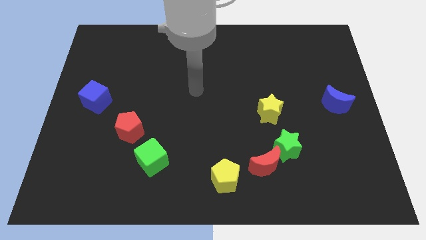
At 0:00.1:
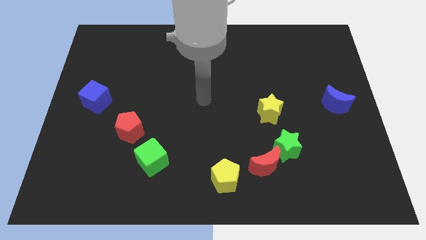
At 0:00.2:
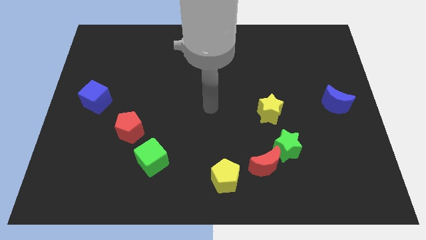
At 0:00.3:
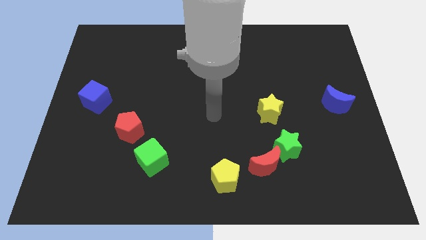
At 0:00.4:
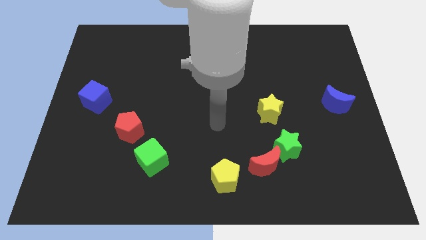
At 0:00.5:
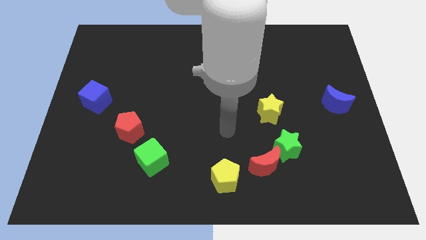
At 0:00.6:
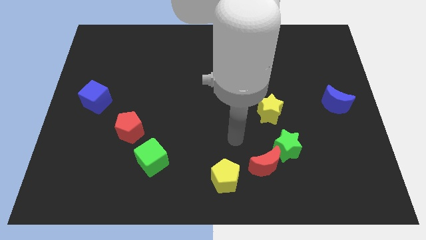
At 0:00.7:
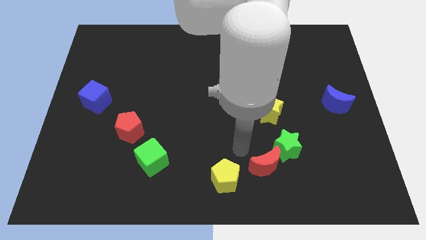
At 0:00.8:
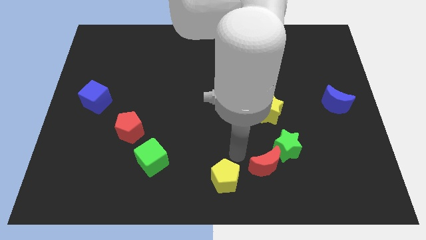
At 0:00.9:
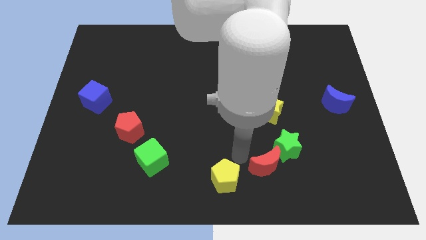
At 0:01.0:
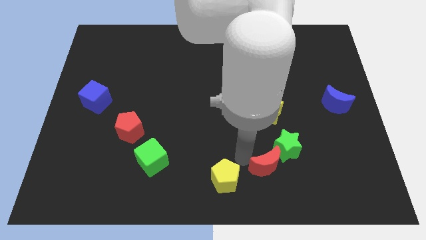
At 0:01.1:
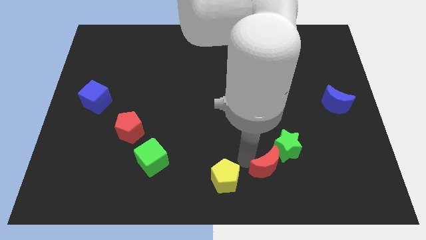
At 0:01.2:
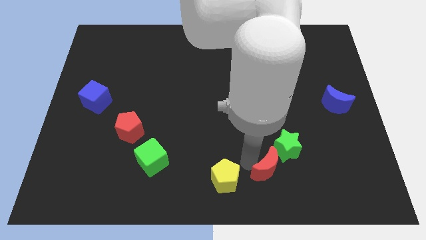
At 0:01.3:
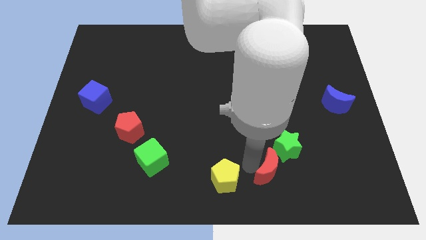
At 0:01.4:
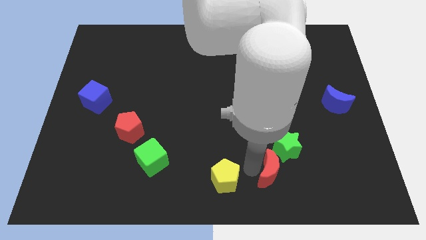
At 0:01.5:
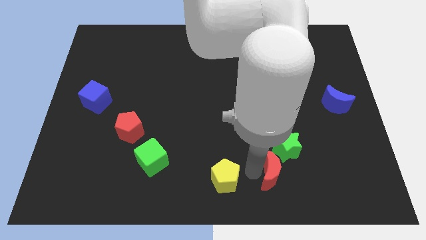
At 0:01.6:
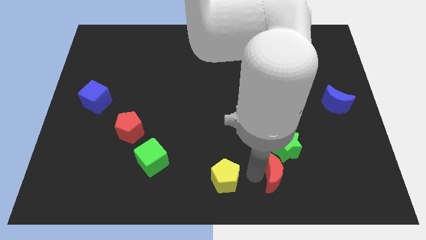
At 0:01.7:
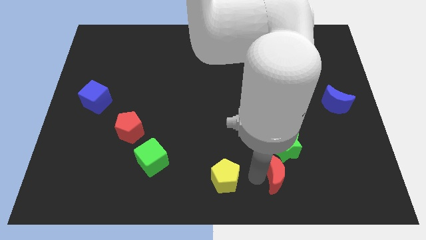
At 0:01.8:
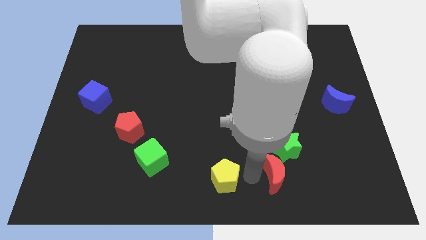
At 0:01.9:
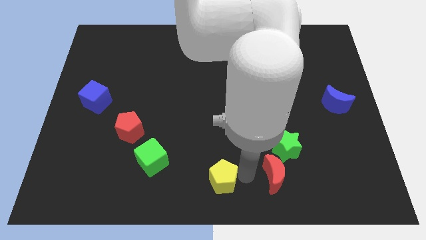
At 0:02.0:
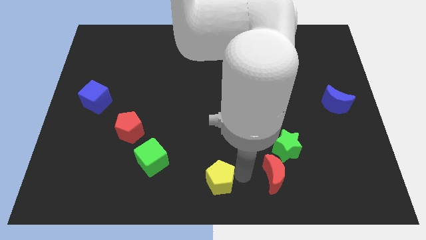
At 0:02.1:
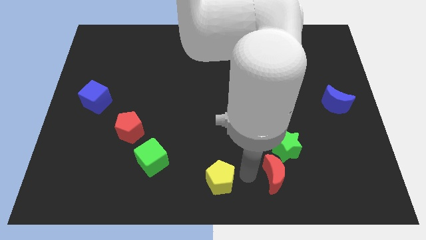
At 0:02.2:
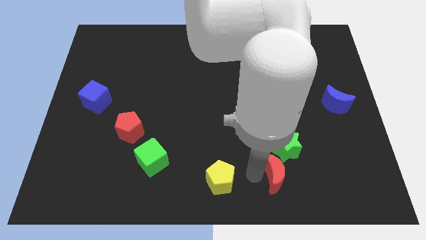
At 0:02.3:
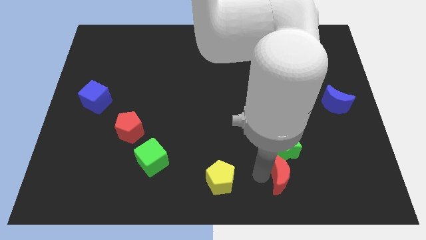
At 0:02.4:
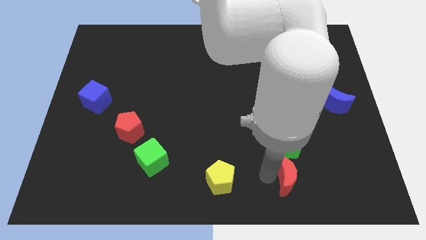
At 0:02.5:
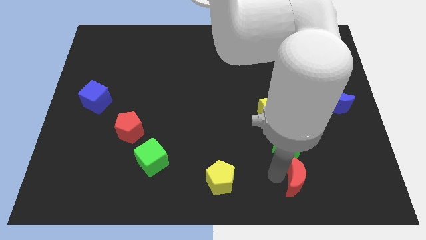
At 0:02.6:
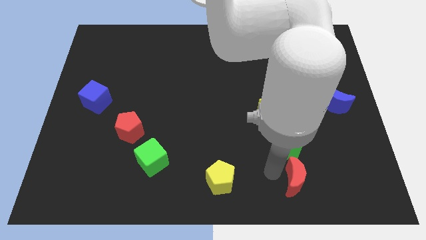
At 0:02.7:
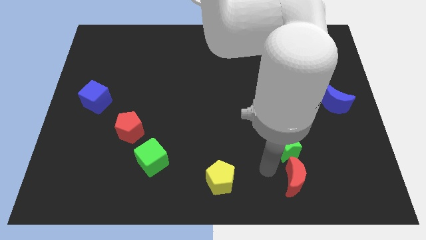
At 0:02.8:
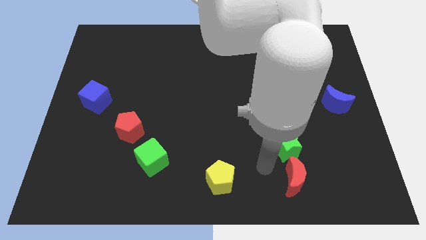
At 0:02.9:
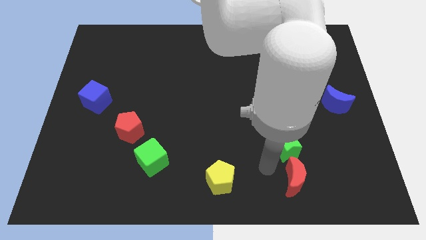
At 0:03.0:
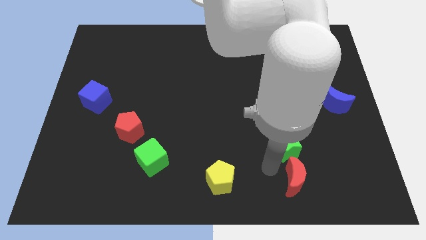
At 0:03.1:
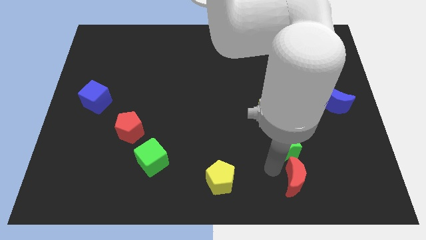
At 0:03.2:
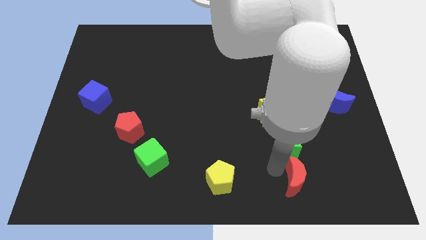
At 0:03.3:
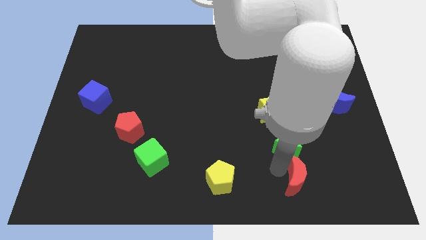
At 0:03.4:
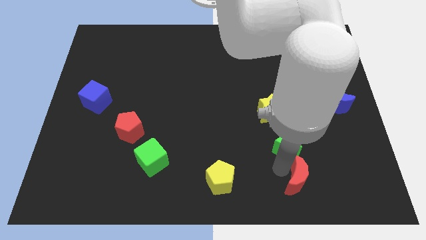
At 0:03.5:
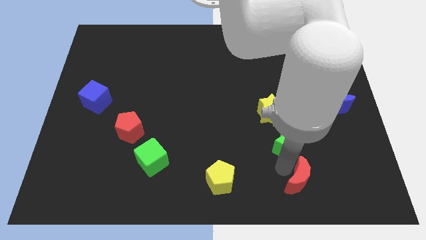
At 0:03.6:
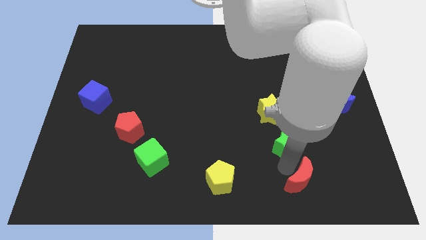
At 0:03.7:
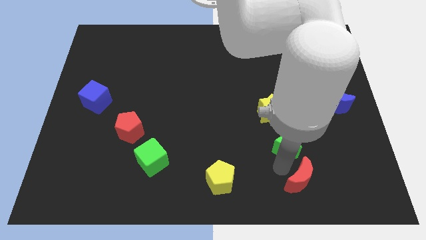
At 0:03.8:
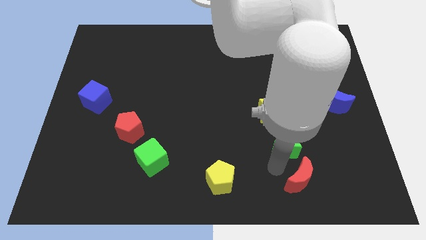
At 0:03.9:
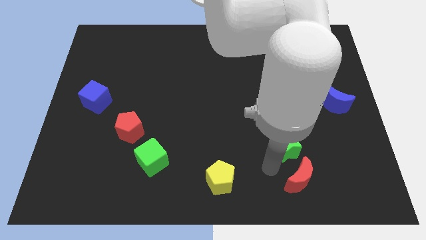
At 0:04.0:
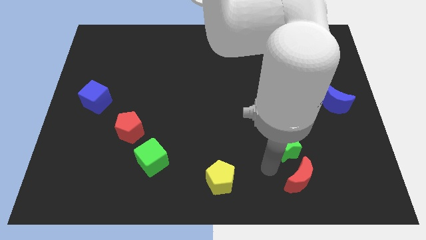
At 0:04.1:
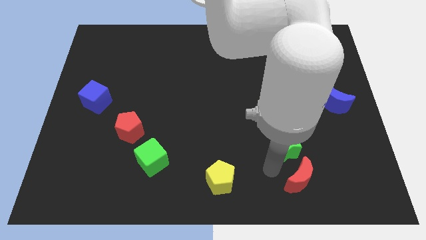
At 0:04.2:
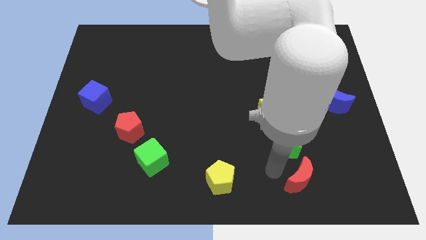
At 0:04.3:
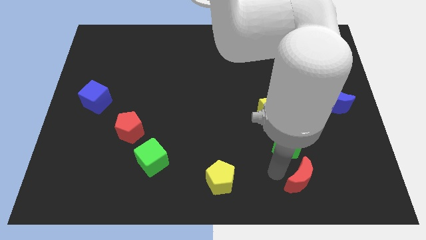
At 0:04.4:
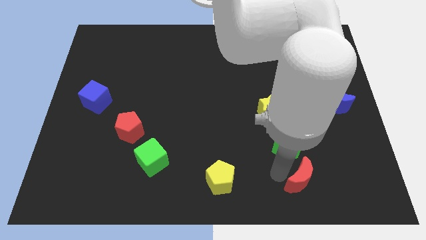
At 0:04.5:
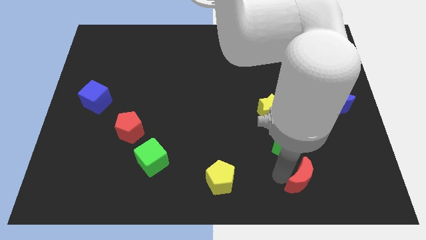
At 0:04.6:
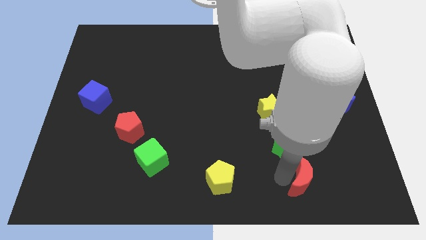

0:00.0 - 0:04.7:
separate the red moon from the green star and yellow pentagon

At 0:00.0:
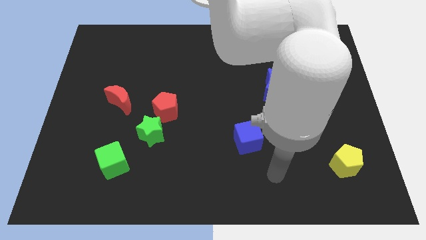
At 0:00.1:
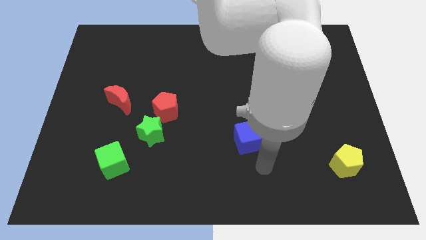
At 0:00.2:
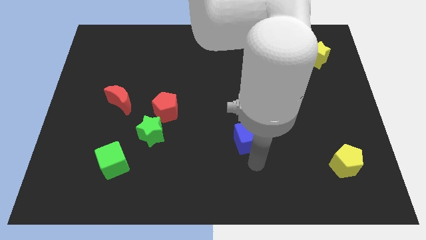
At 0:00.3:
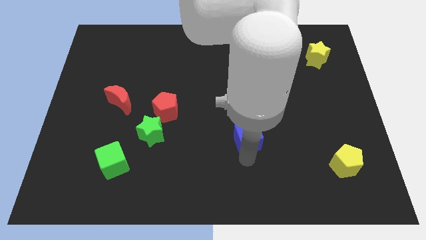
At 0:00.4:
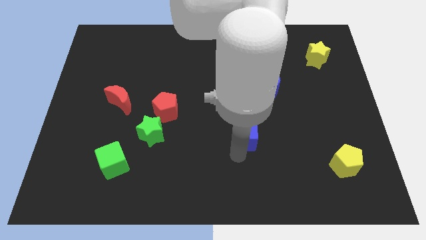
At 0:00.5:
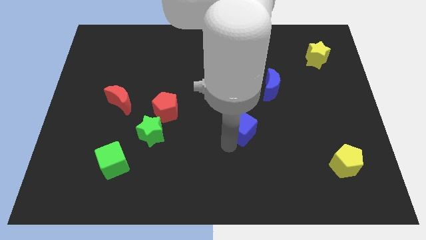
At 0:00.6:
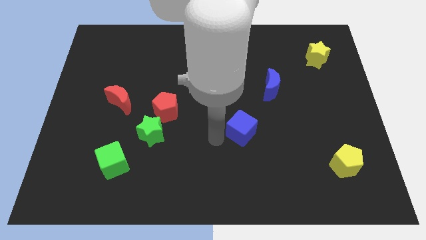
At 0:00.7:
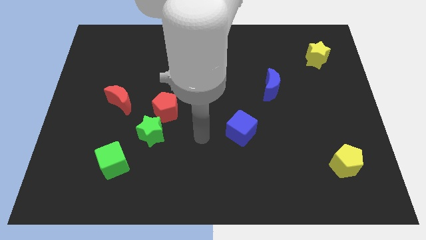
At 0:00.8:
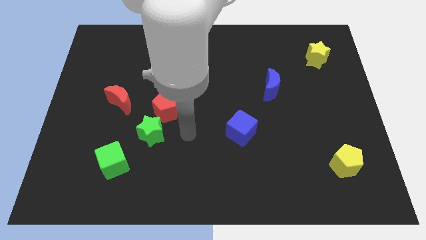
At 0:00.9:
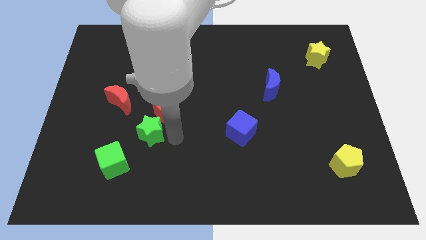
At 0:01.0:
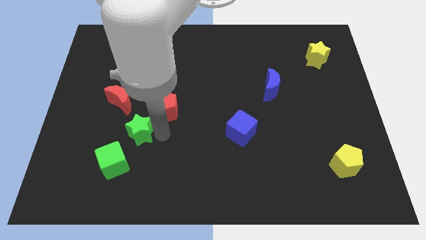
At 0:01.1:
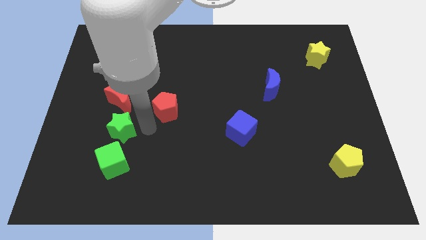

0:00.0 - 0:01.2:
move the red pentagon away from the green star

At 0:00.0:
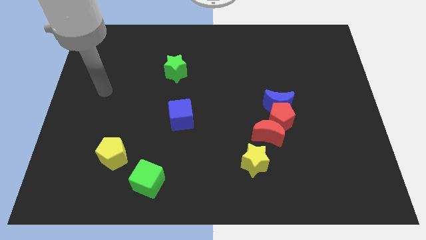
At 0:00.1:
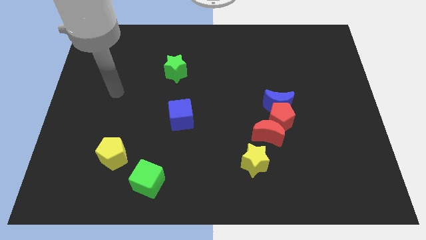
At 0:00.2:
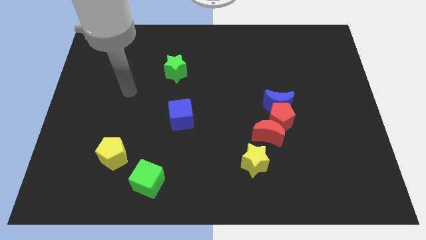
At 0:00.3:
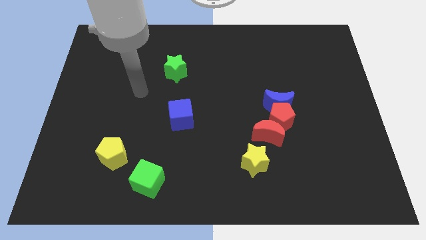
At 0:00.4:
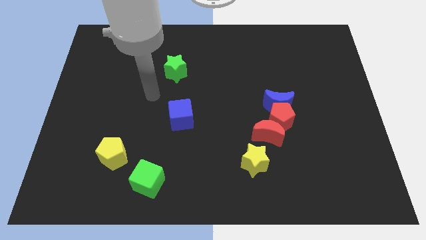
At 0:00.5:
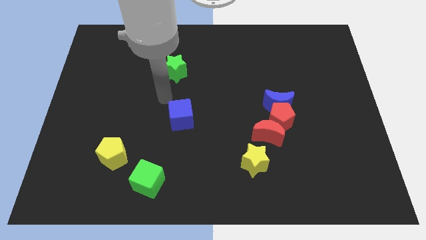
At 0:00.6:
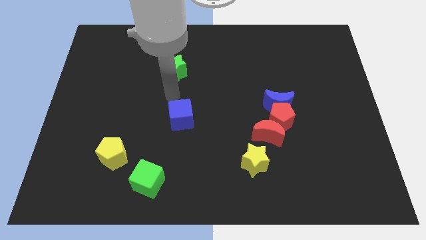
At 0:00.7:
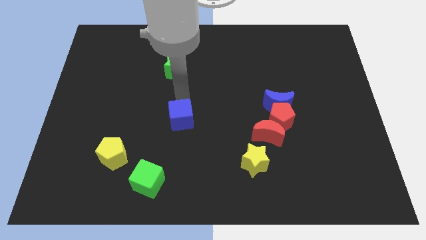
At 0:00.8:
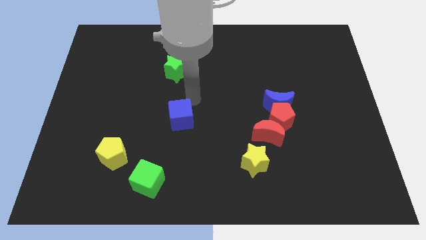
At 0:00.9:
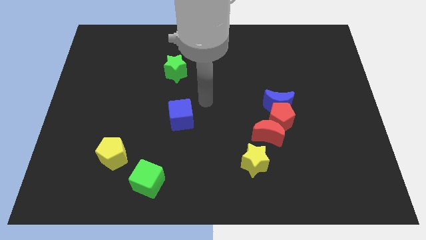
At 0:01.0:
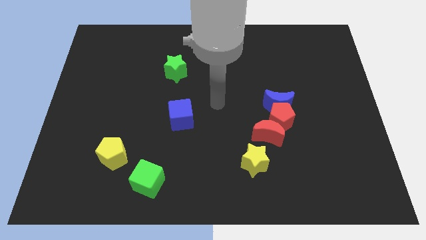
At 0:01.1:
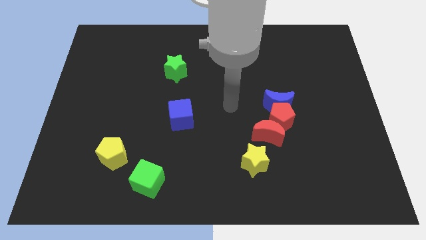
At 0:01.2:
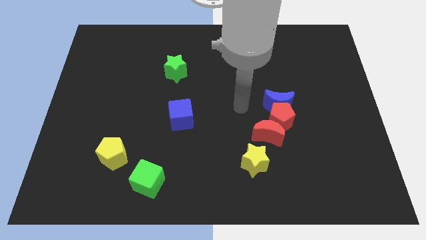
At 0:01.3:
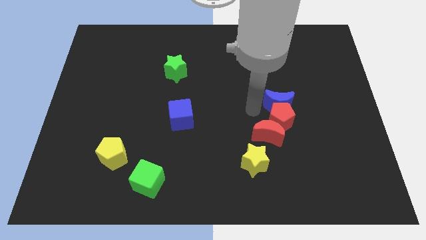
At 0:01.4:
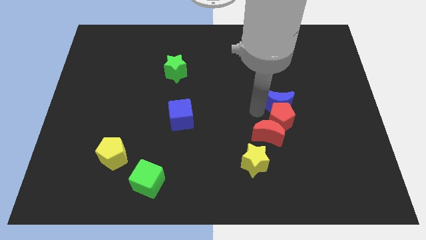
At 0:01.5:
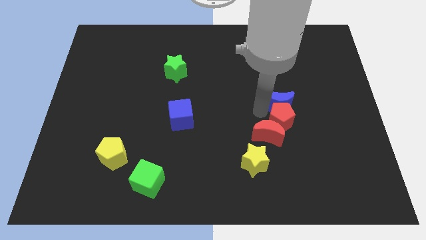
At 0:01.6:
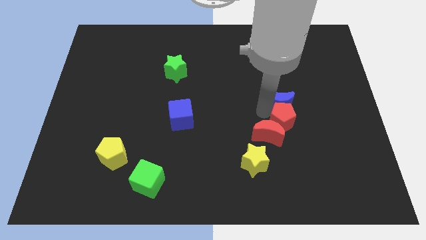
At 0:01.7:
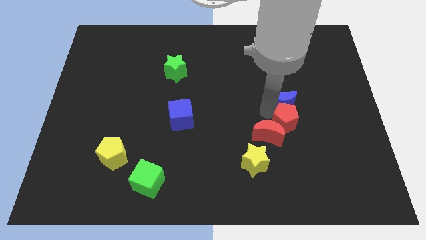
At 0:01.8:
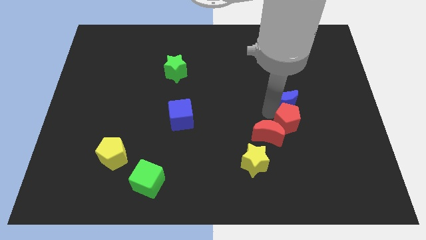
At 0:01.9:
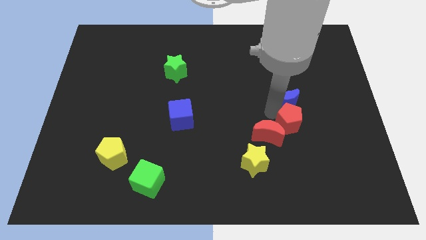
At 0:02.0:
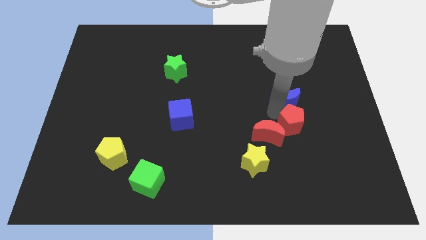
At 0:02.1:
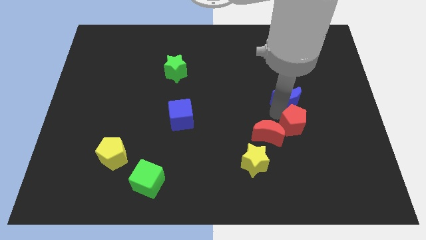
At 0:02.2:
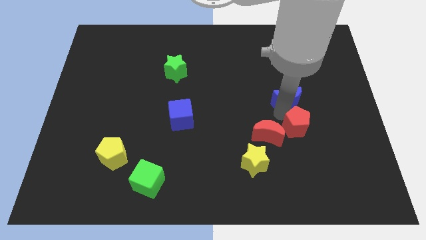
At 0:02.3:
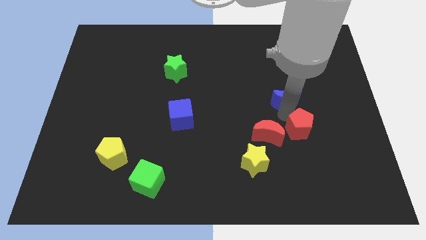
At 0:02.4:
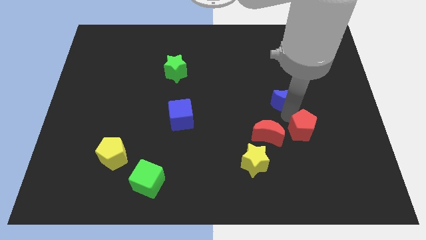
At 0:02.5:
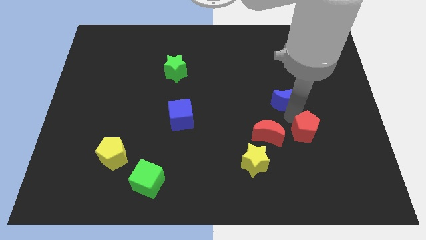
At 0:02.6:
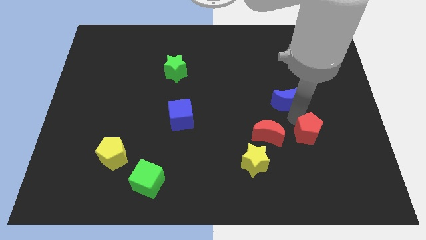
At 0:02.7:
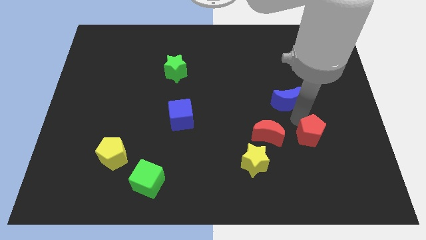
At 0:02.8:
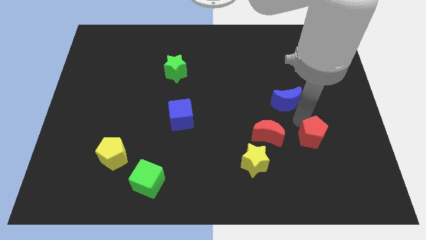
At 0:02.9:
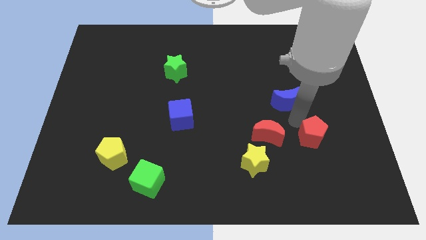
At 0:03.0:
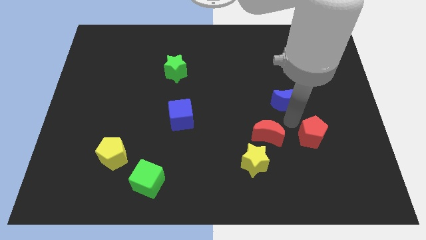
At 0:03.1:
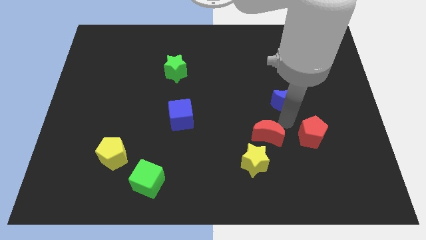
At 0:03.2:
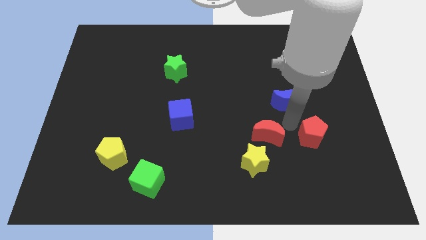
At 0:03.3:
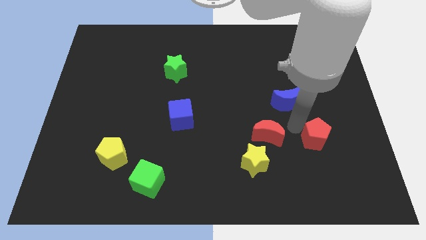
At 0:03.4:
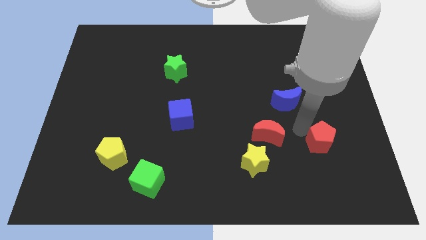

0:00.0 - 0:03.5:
separate the red pentagon from the blue moon and red moon
